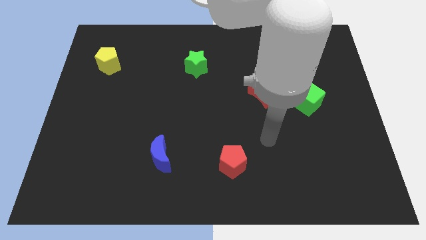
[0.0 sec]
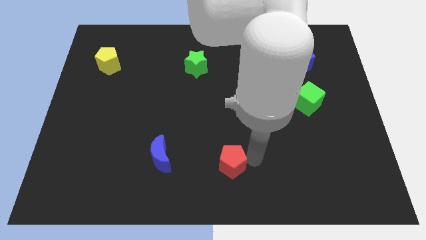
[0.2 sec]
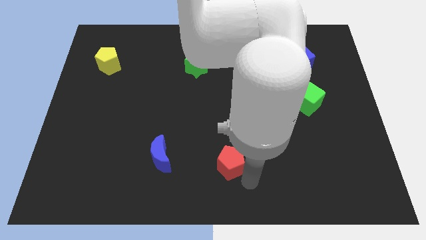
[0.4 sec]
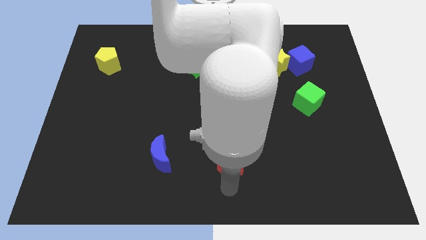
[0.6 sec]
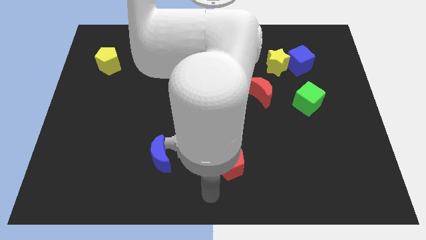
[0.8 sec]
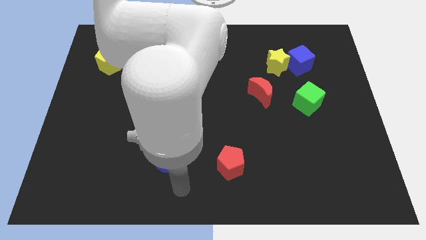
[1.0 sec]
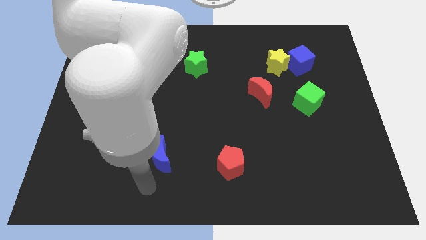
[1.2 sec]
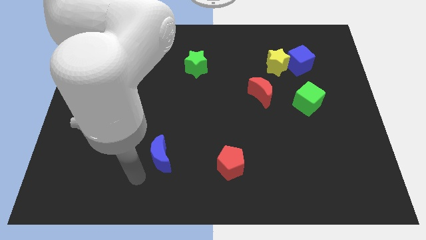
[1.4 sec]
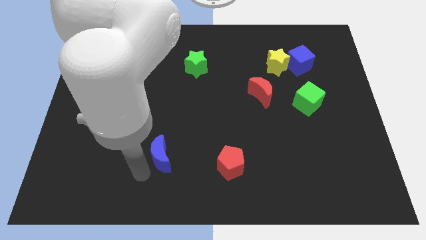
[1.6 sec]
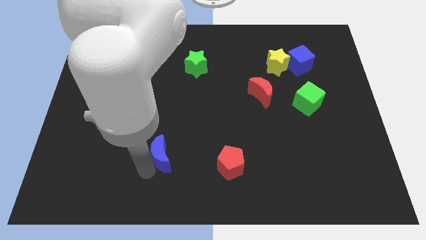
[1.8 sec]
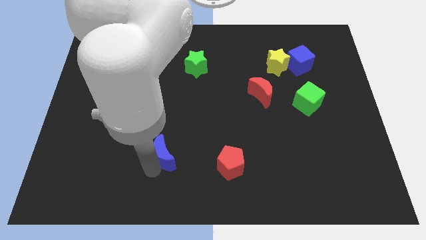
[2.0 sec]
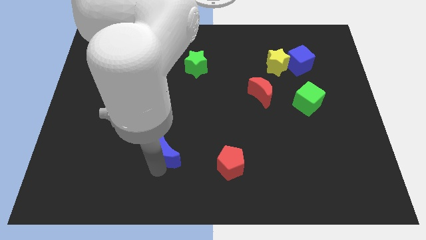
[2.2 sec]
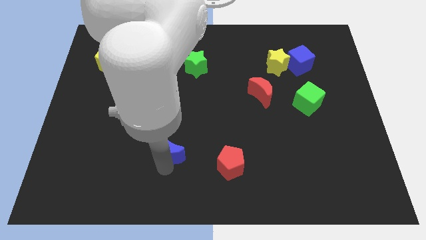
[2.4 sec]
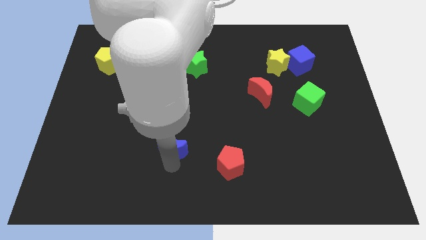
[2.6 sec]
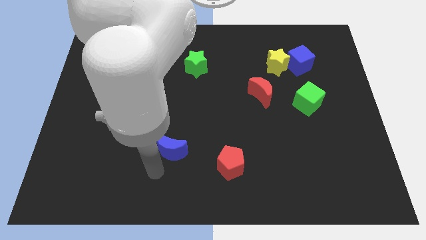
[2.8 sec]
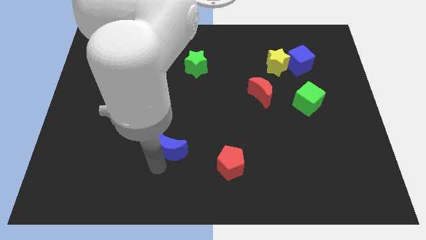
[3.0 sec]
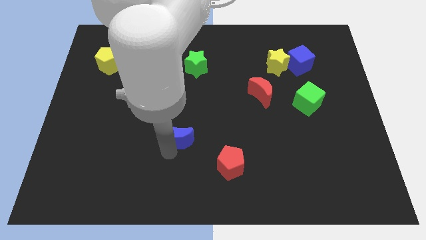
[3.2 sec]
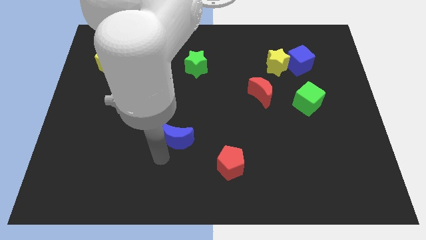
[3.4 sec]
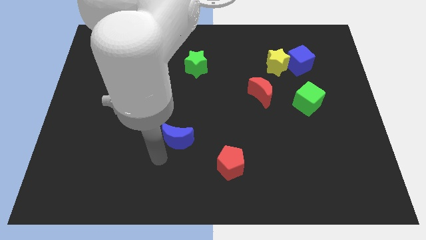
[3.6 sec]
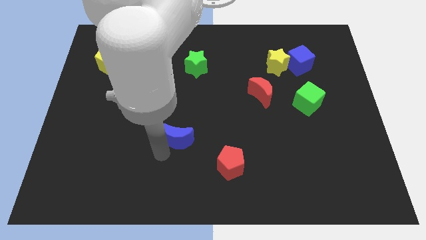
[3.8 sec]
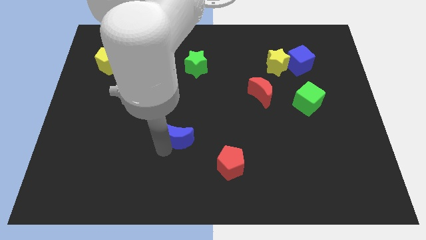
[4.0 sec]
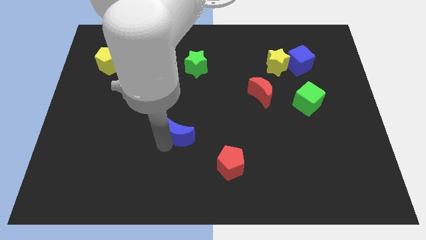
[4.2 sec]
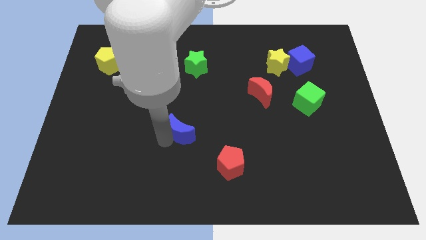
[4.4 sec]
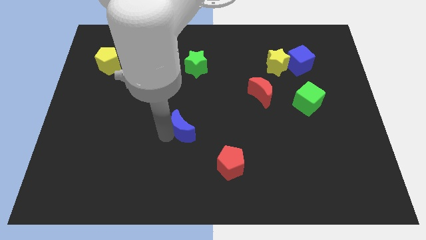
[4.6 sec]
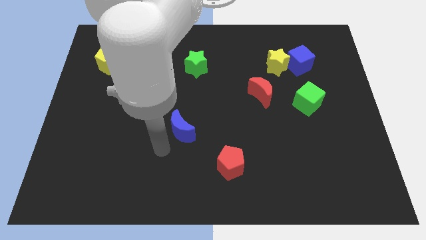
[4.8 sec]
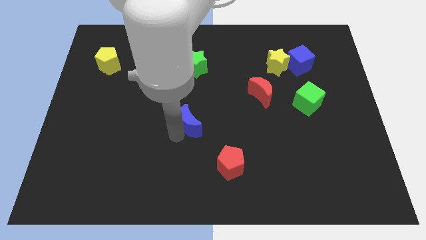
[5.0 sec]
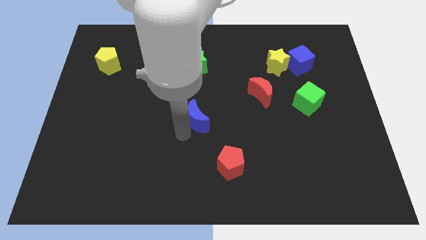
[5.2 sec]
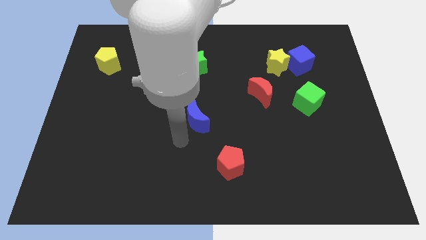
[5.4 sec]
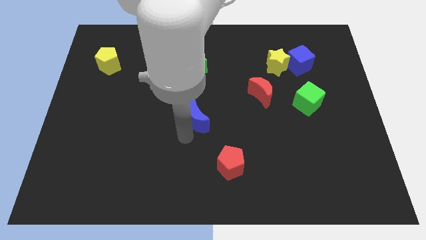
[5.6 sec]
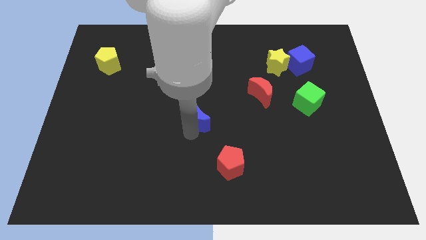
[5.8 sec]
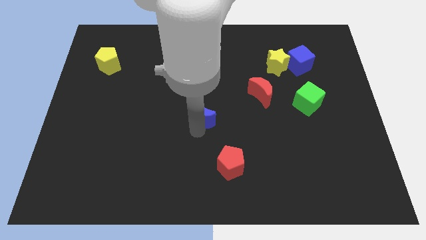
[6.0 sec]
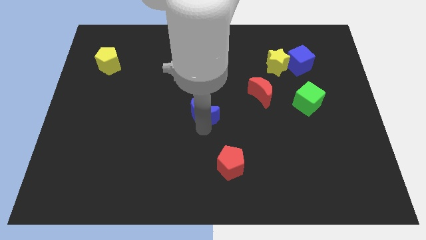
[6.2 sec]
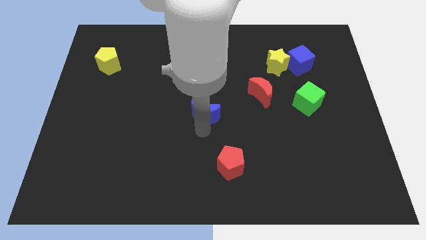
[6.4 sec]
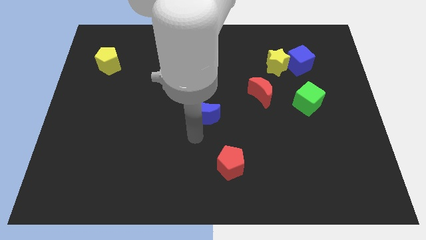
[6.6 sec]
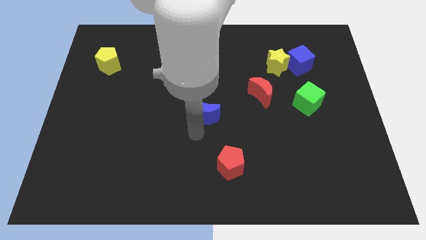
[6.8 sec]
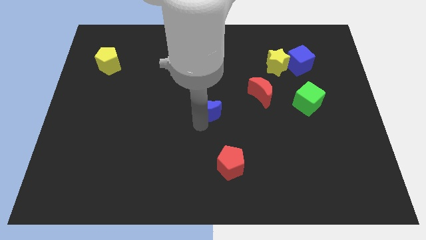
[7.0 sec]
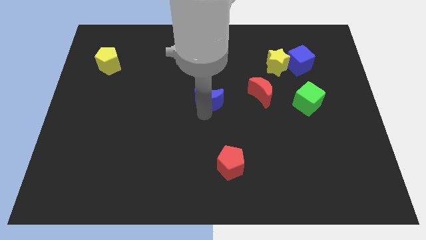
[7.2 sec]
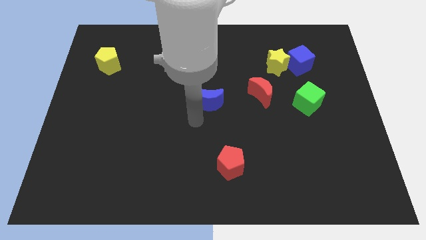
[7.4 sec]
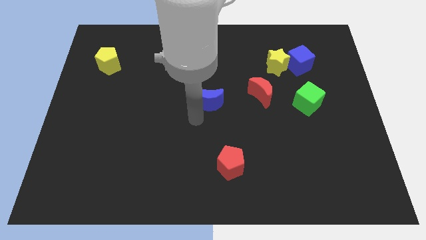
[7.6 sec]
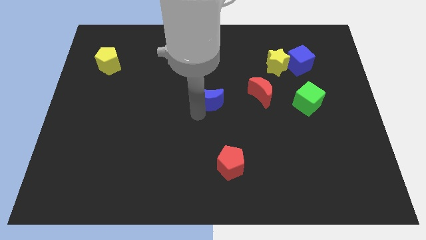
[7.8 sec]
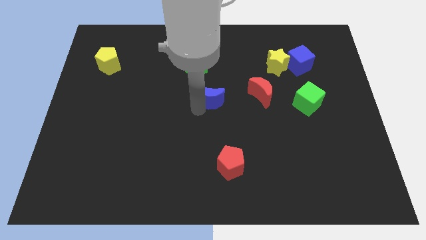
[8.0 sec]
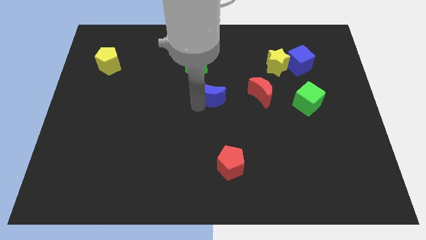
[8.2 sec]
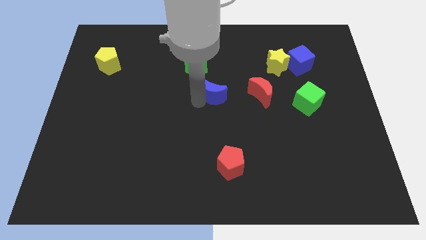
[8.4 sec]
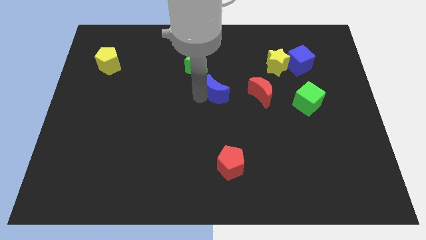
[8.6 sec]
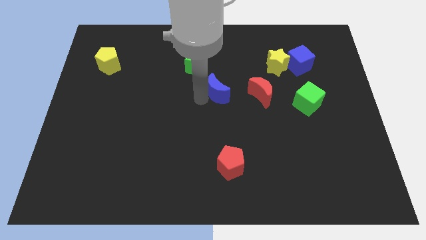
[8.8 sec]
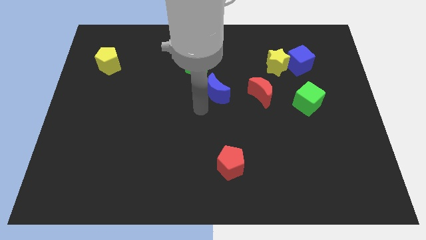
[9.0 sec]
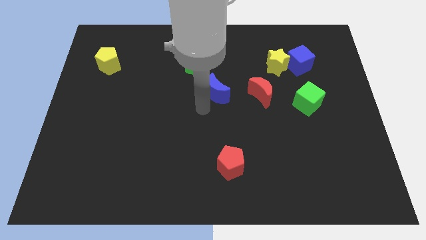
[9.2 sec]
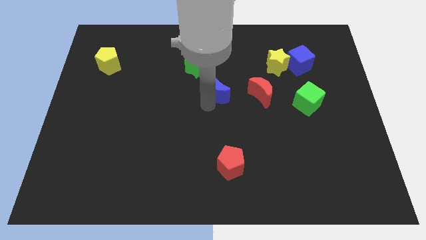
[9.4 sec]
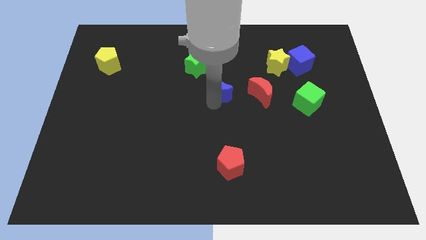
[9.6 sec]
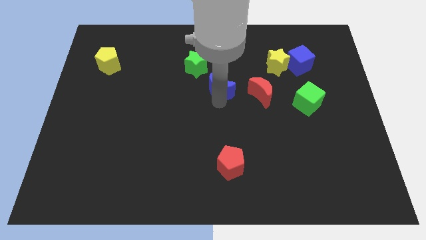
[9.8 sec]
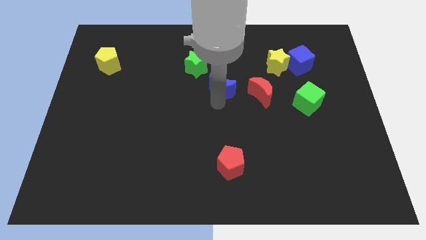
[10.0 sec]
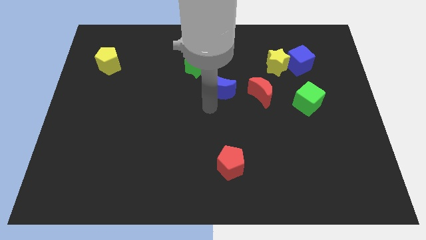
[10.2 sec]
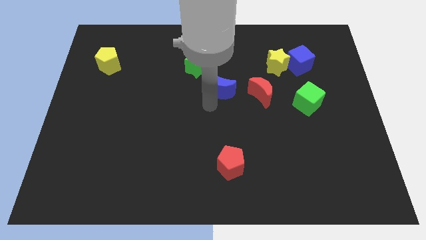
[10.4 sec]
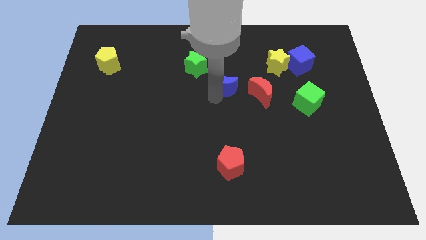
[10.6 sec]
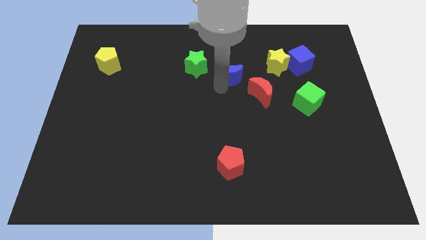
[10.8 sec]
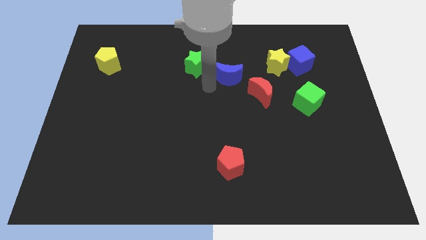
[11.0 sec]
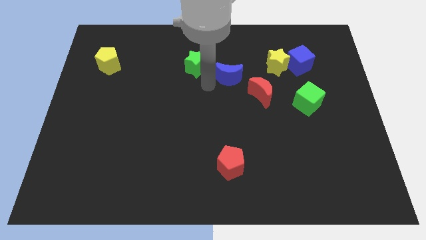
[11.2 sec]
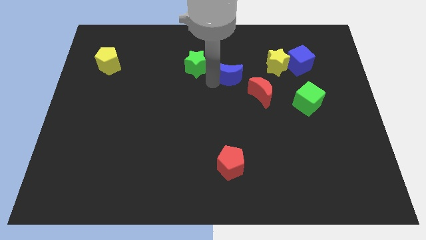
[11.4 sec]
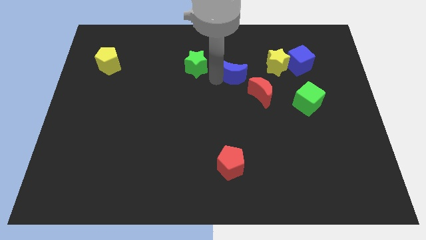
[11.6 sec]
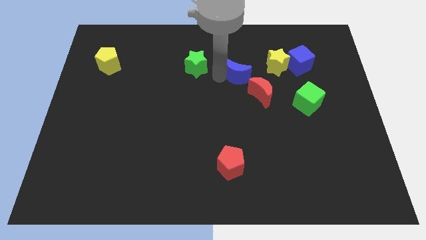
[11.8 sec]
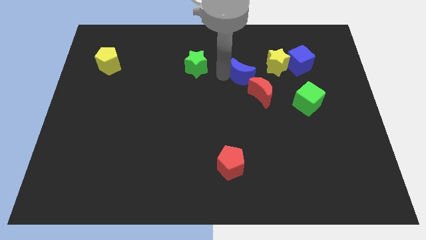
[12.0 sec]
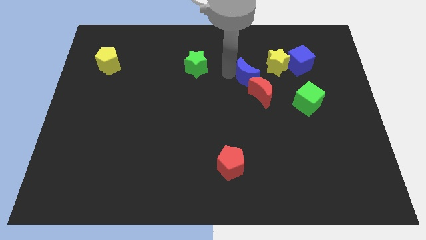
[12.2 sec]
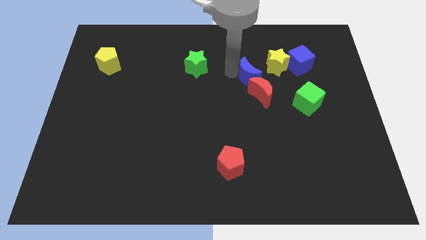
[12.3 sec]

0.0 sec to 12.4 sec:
put the blue moon to the left side of the blue cube
